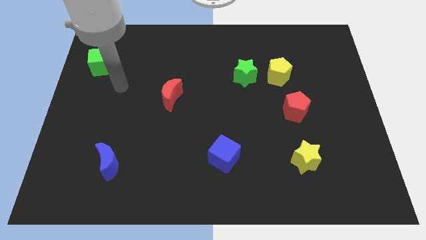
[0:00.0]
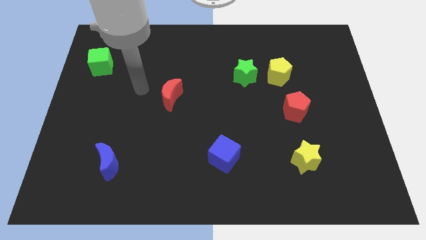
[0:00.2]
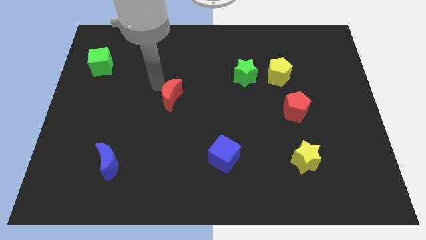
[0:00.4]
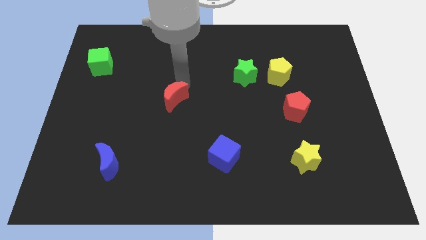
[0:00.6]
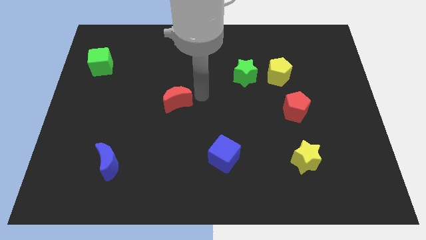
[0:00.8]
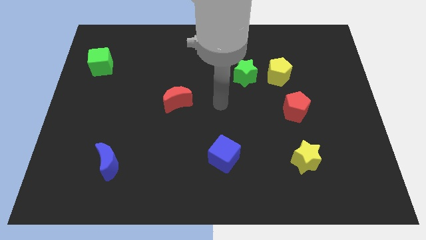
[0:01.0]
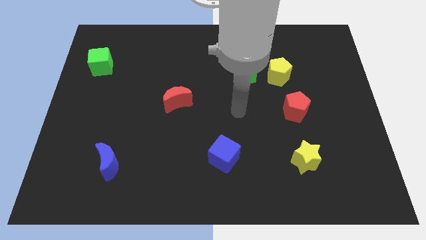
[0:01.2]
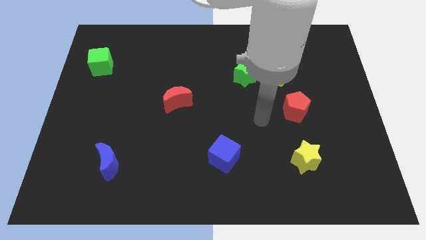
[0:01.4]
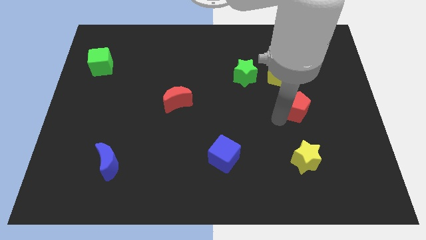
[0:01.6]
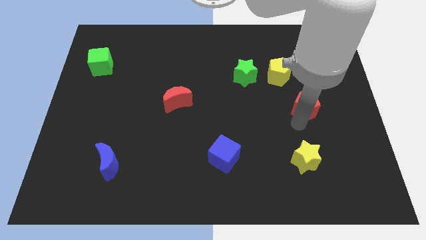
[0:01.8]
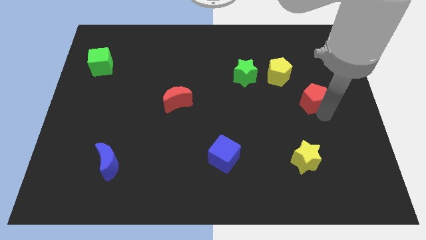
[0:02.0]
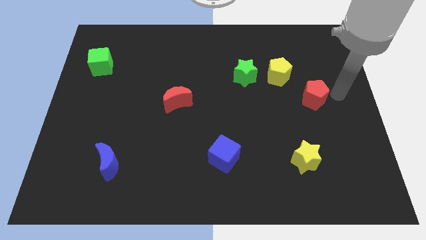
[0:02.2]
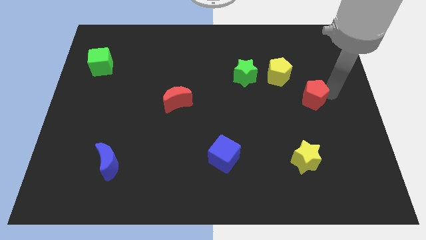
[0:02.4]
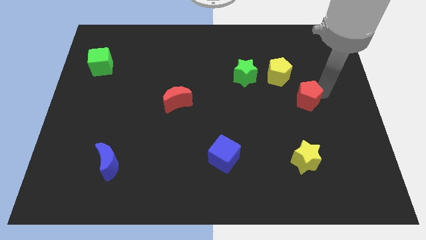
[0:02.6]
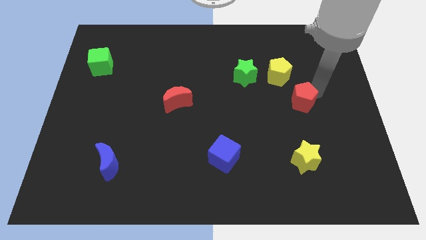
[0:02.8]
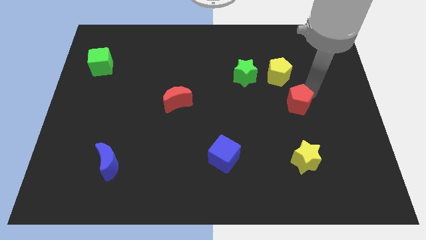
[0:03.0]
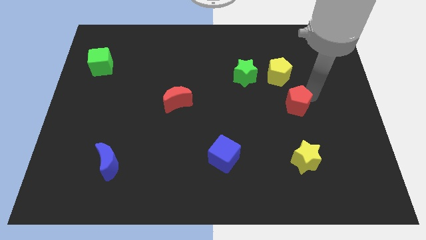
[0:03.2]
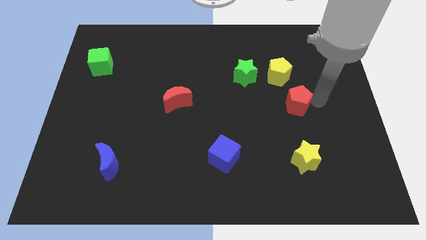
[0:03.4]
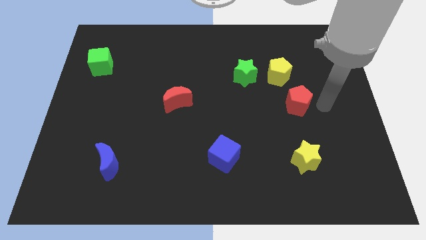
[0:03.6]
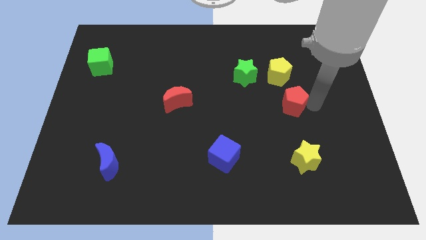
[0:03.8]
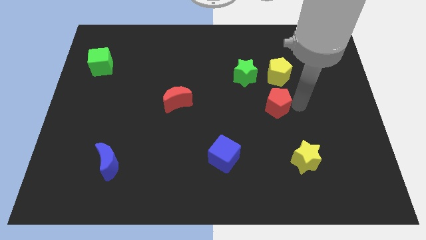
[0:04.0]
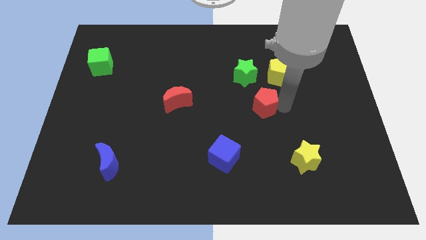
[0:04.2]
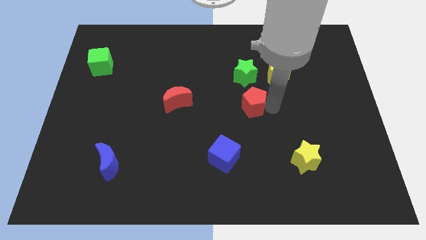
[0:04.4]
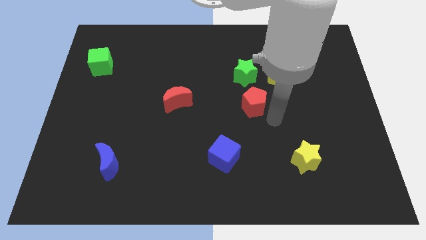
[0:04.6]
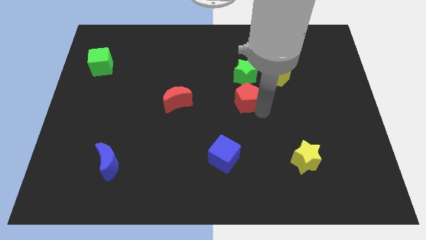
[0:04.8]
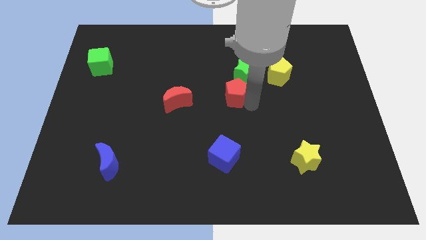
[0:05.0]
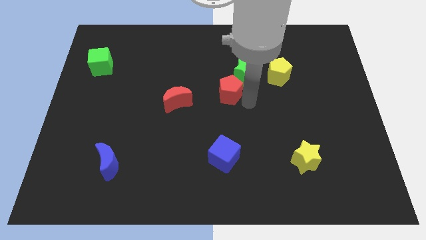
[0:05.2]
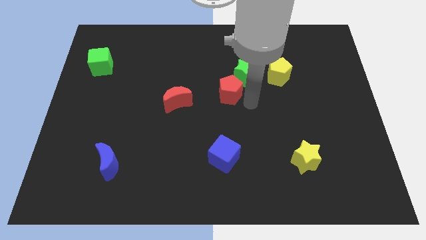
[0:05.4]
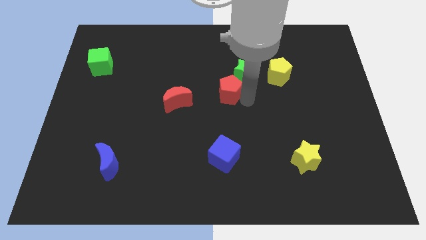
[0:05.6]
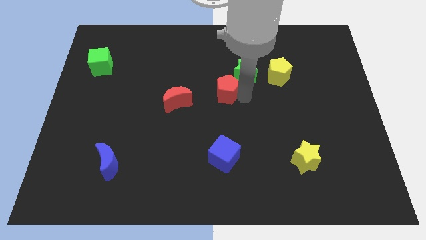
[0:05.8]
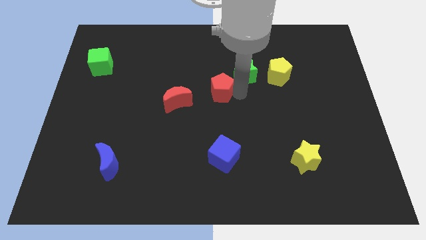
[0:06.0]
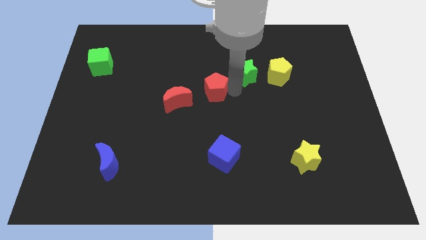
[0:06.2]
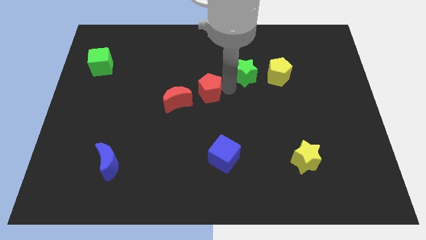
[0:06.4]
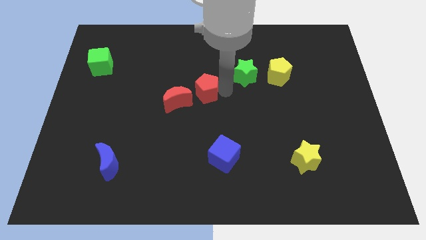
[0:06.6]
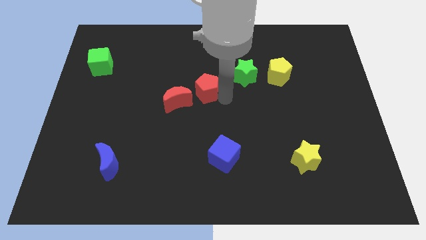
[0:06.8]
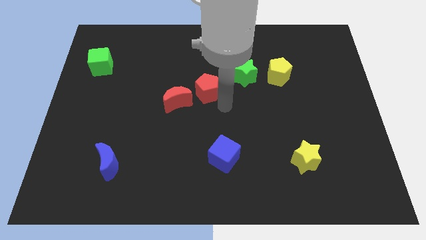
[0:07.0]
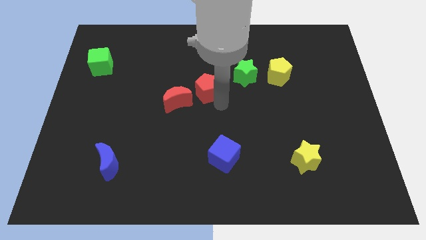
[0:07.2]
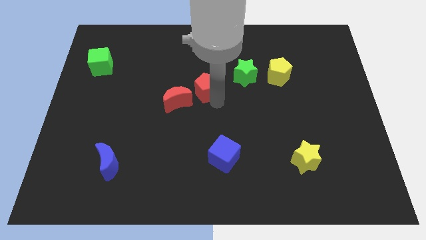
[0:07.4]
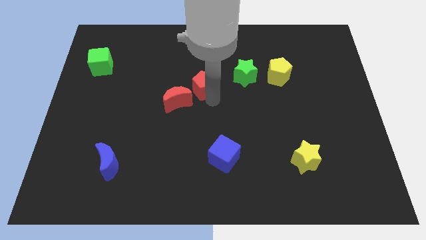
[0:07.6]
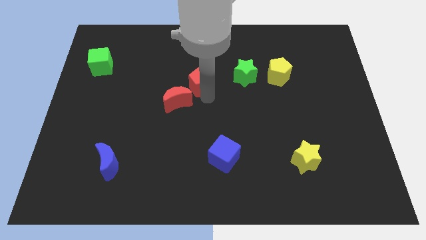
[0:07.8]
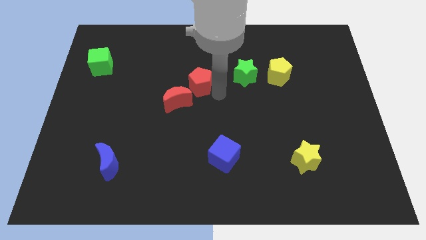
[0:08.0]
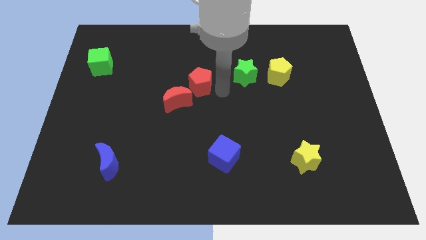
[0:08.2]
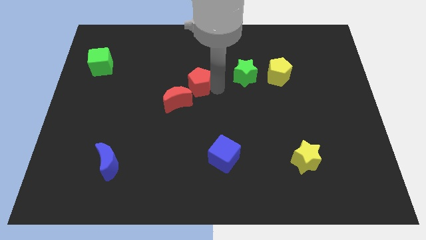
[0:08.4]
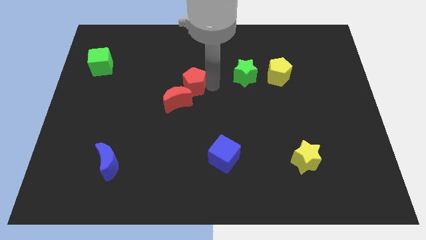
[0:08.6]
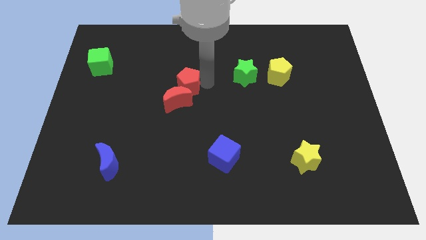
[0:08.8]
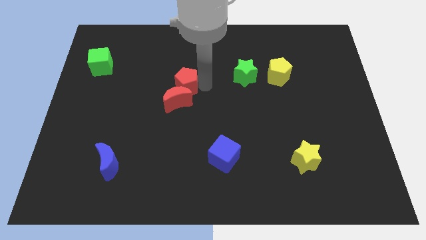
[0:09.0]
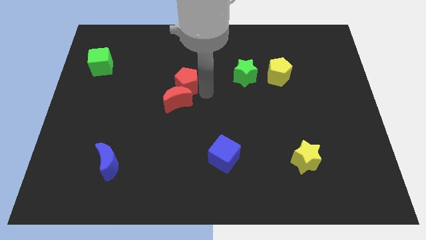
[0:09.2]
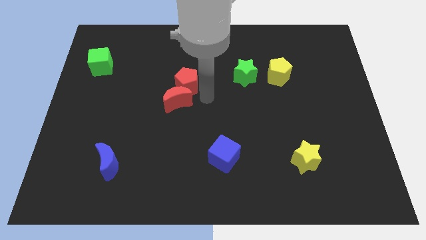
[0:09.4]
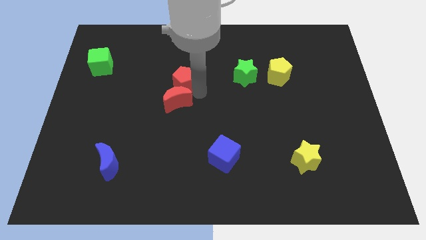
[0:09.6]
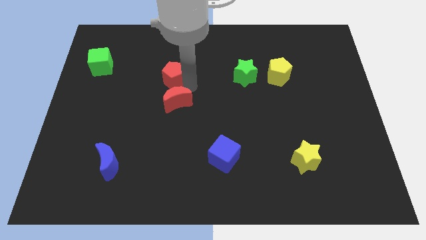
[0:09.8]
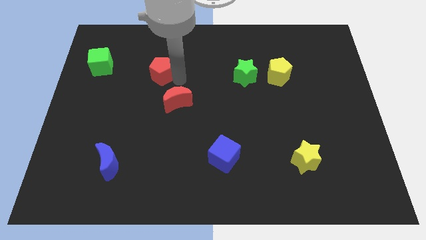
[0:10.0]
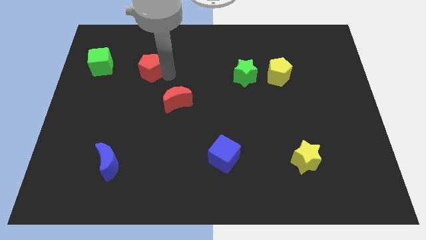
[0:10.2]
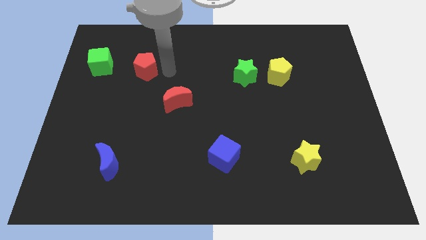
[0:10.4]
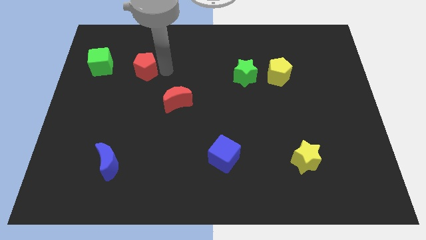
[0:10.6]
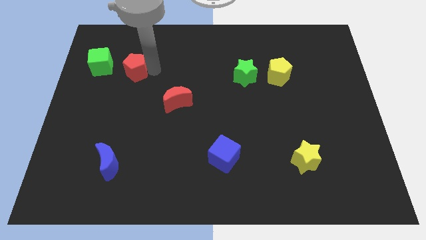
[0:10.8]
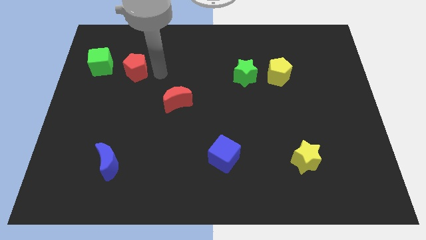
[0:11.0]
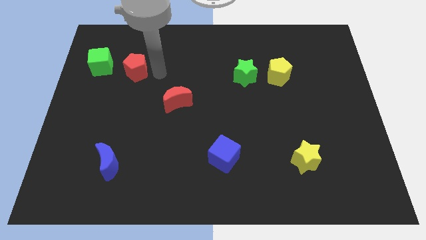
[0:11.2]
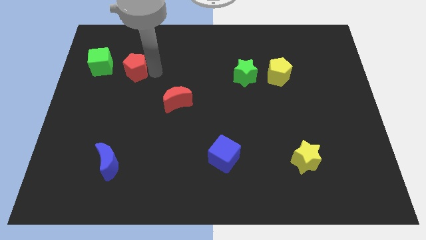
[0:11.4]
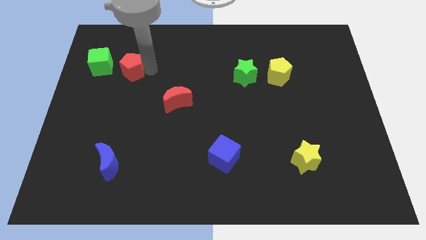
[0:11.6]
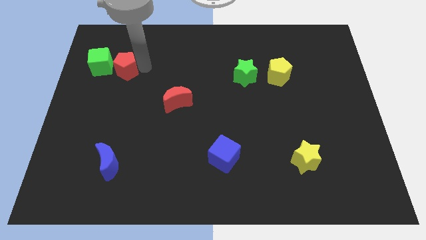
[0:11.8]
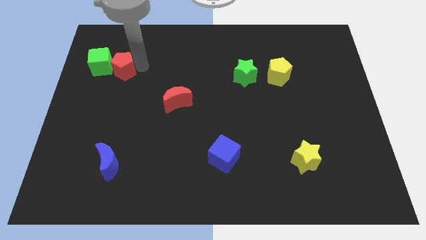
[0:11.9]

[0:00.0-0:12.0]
put the red pentagon close to the green cube

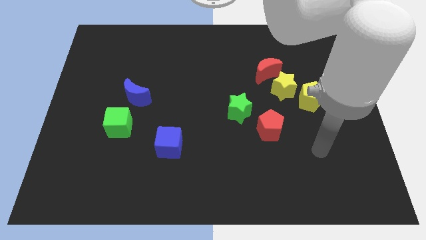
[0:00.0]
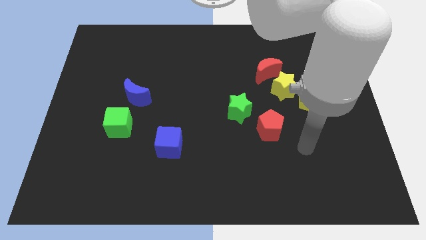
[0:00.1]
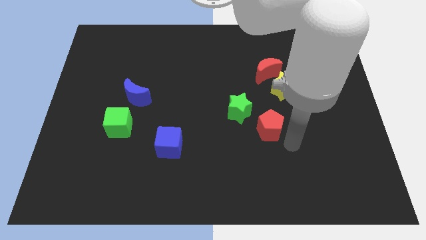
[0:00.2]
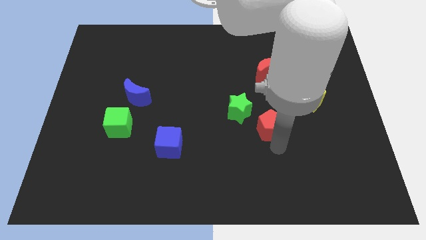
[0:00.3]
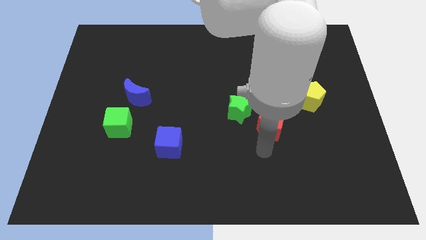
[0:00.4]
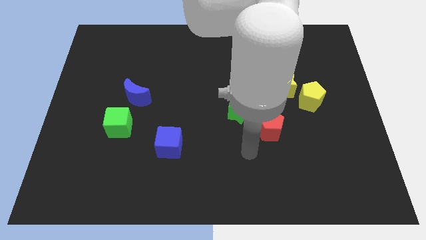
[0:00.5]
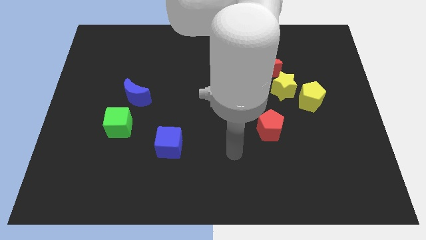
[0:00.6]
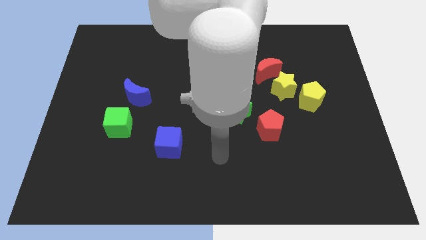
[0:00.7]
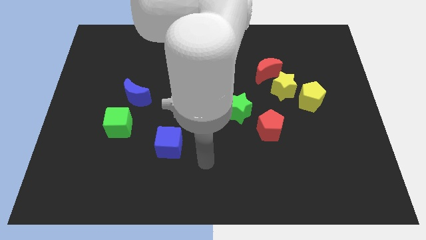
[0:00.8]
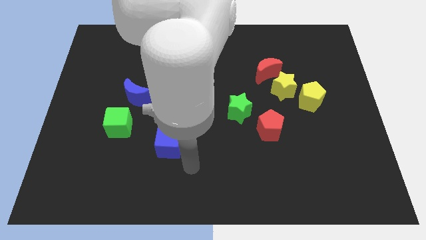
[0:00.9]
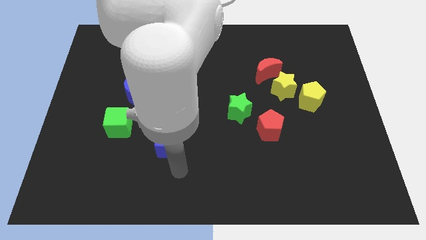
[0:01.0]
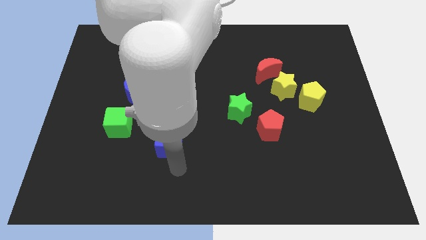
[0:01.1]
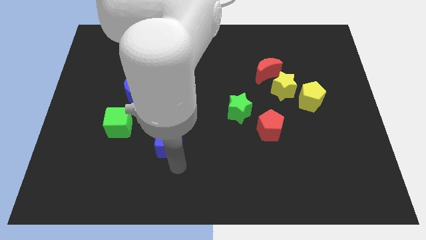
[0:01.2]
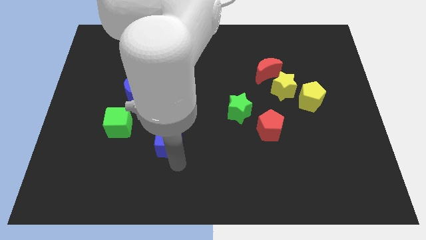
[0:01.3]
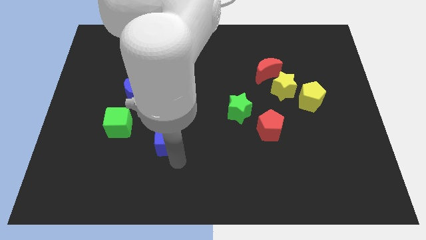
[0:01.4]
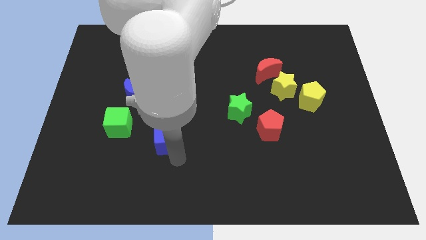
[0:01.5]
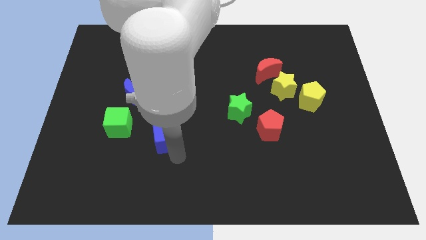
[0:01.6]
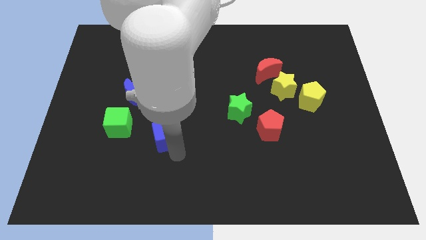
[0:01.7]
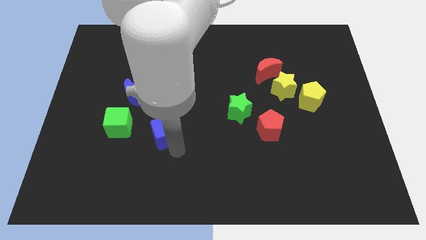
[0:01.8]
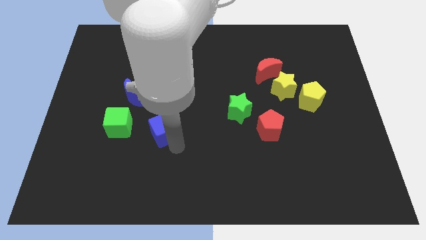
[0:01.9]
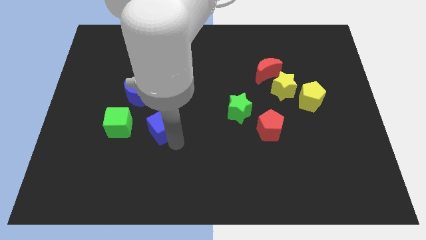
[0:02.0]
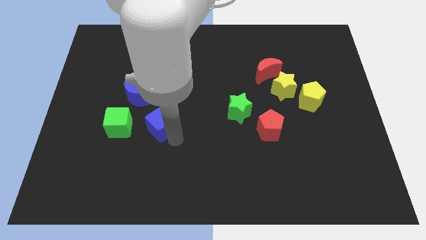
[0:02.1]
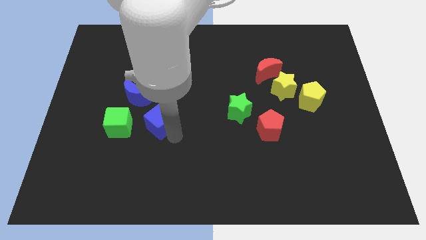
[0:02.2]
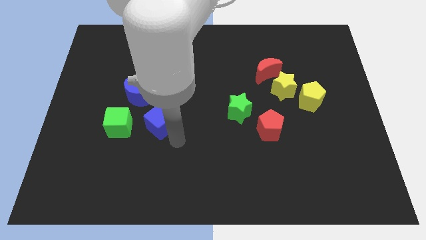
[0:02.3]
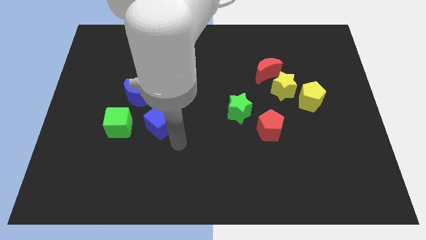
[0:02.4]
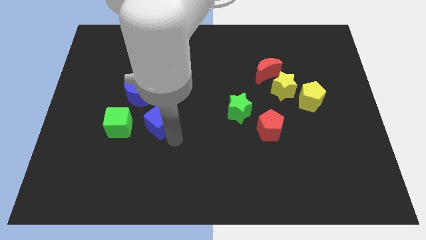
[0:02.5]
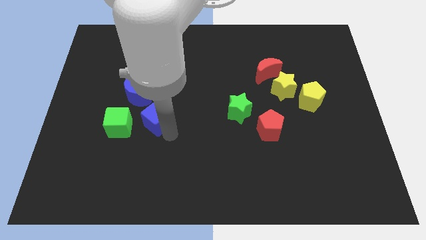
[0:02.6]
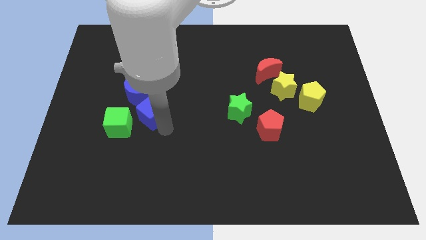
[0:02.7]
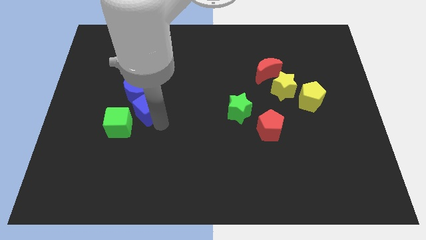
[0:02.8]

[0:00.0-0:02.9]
slide the blue cube towards the blue moon
